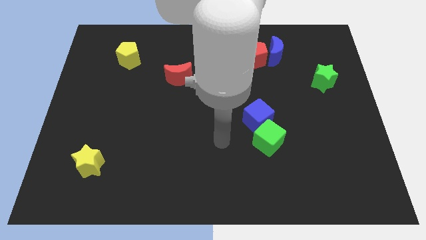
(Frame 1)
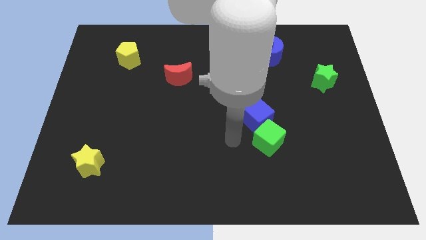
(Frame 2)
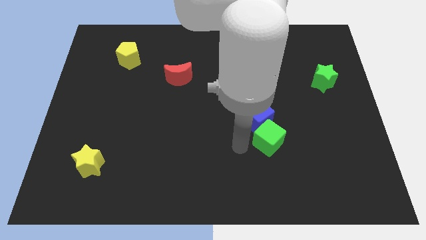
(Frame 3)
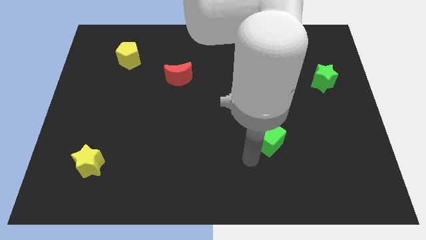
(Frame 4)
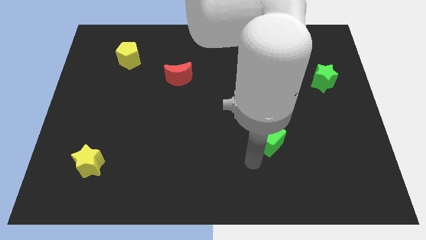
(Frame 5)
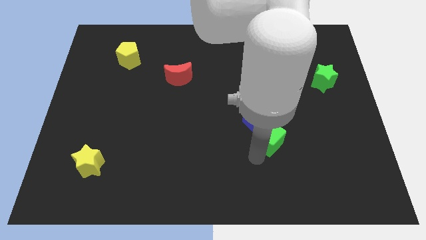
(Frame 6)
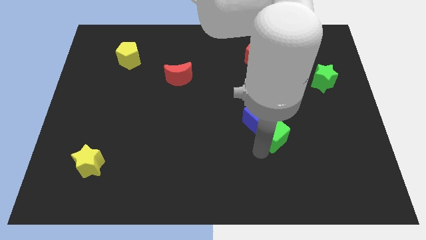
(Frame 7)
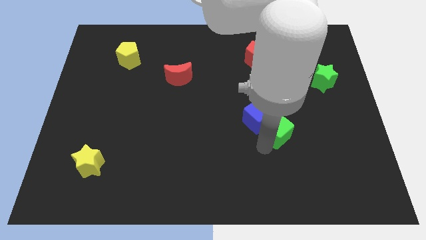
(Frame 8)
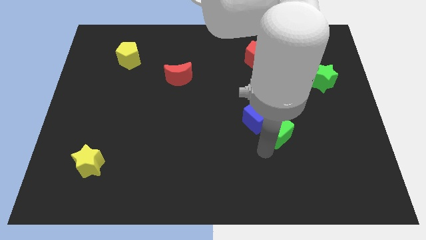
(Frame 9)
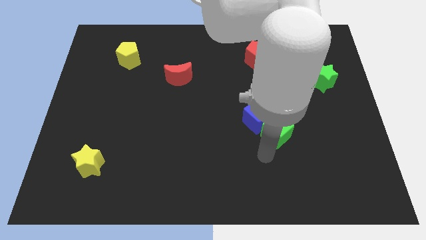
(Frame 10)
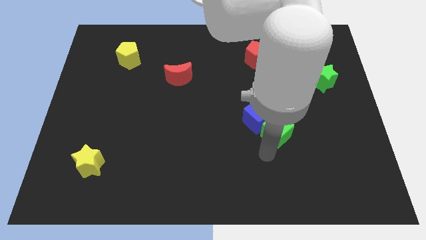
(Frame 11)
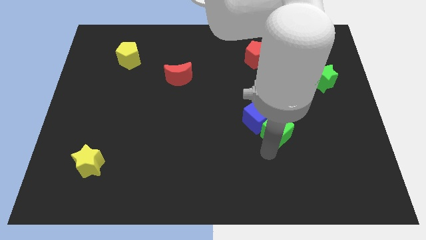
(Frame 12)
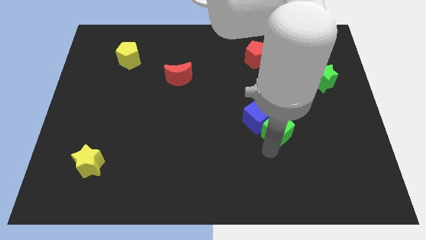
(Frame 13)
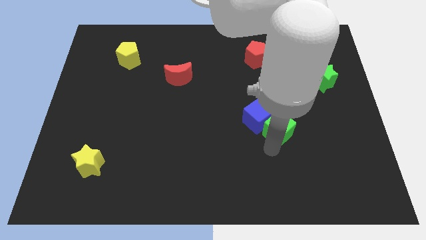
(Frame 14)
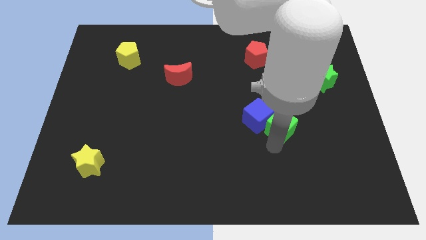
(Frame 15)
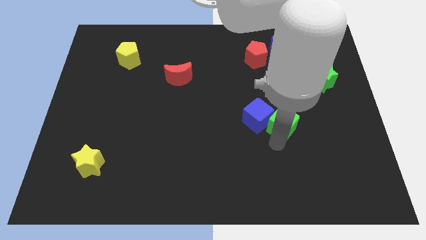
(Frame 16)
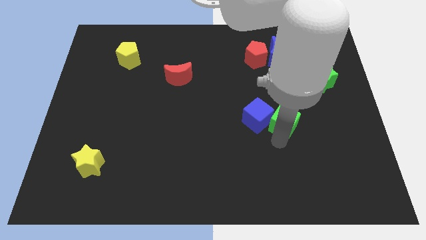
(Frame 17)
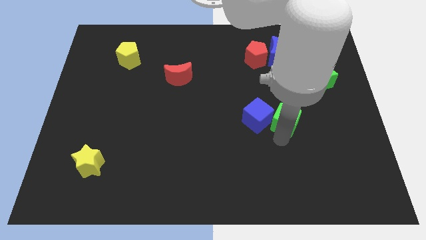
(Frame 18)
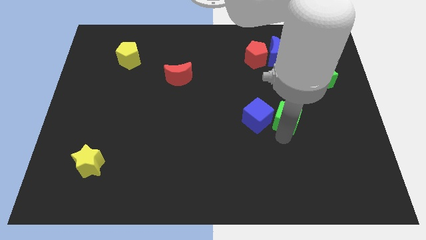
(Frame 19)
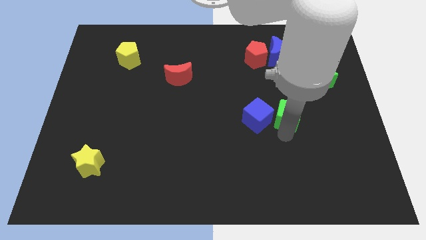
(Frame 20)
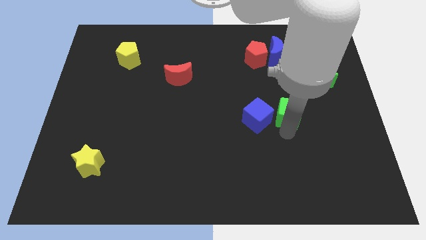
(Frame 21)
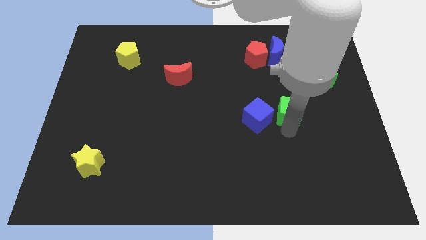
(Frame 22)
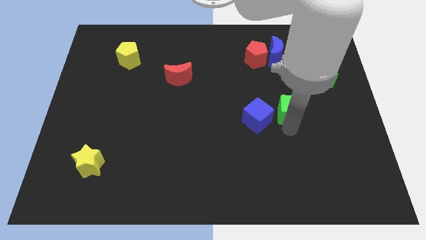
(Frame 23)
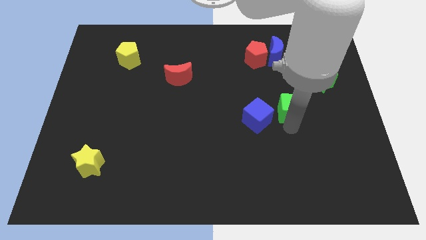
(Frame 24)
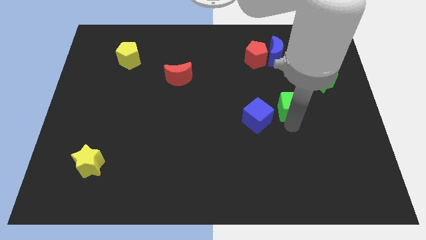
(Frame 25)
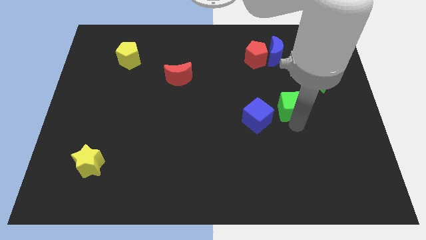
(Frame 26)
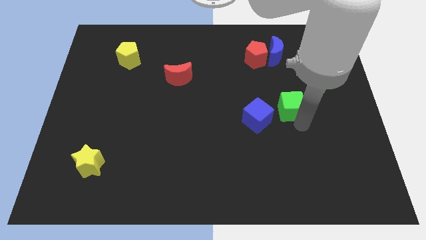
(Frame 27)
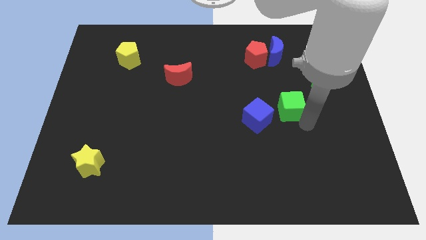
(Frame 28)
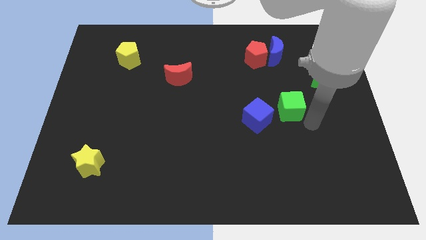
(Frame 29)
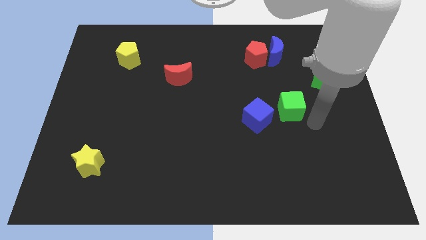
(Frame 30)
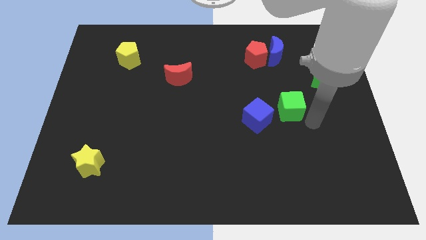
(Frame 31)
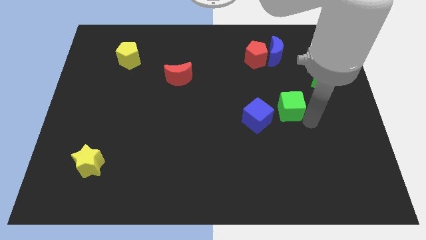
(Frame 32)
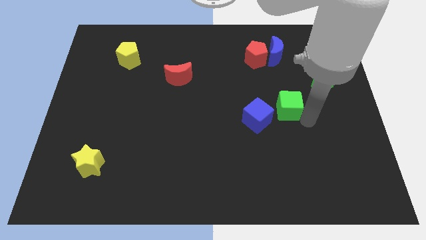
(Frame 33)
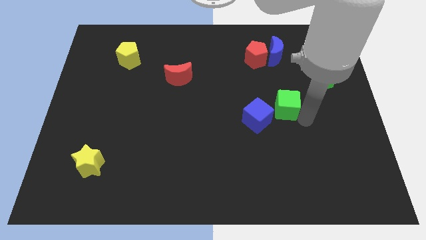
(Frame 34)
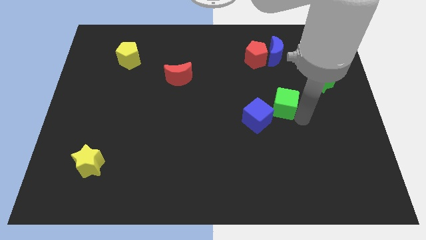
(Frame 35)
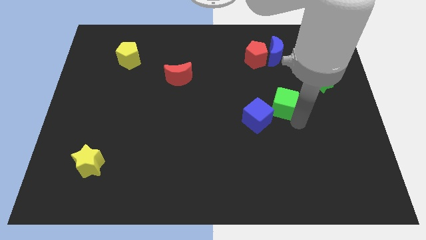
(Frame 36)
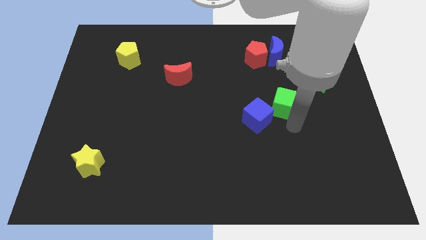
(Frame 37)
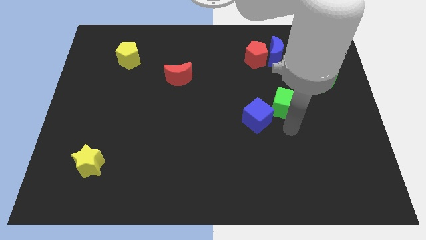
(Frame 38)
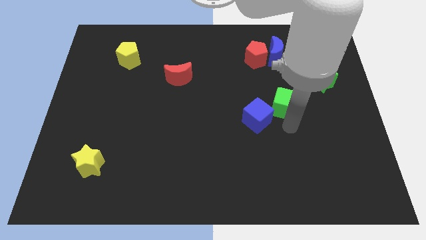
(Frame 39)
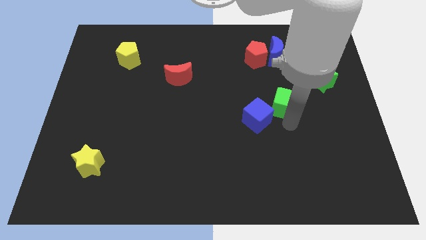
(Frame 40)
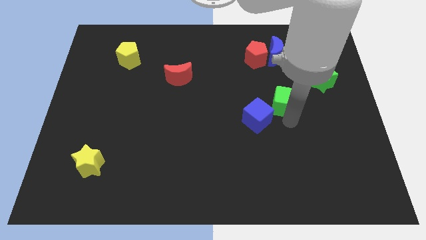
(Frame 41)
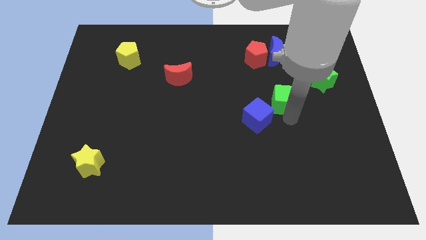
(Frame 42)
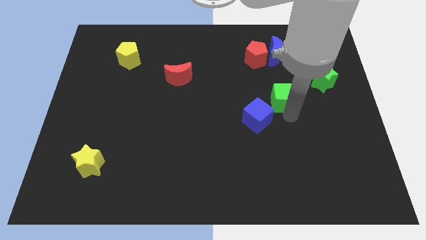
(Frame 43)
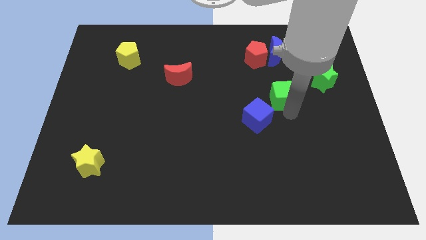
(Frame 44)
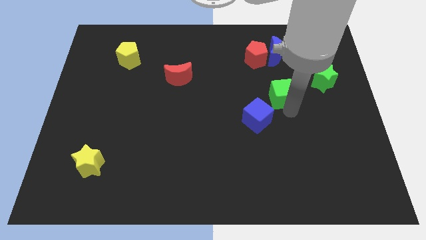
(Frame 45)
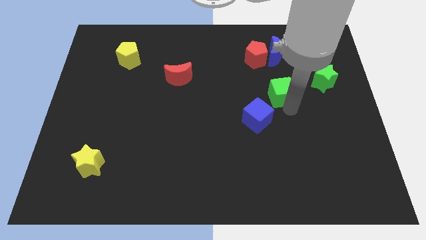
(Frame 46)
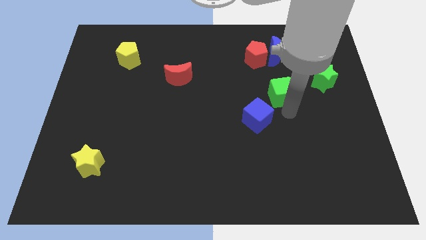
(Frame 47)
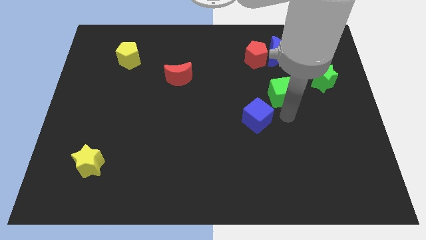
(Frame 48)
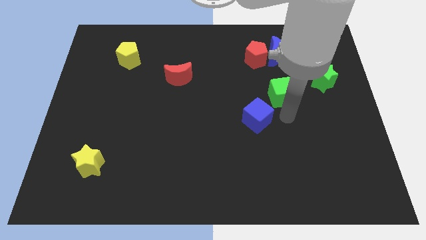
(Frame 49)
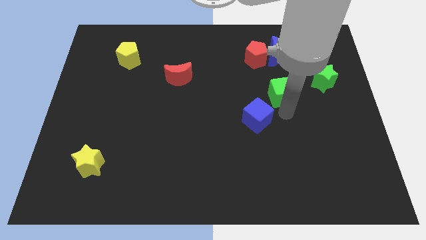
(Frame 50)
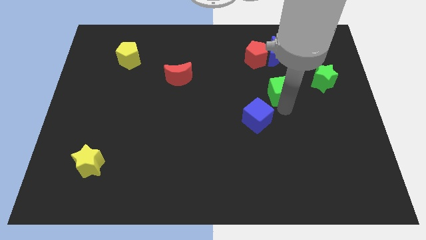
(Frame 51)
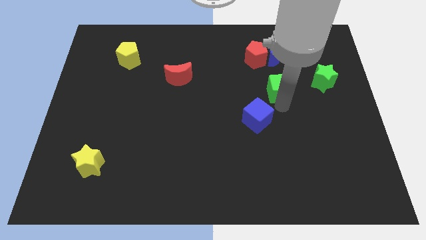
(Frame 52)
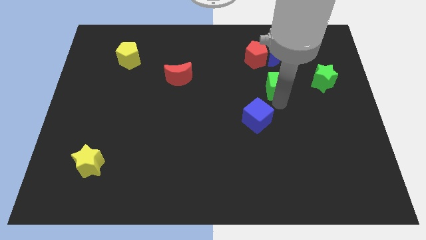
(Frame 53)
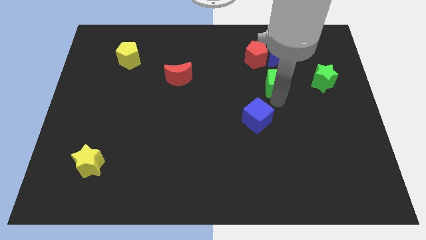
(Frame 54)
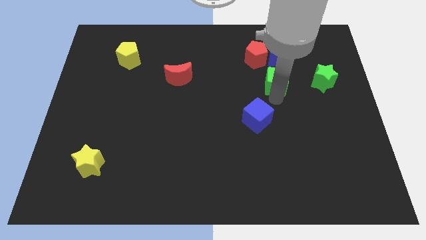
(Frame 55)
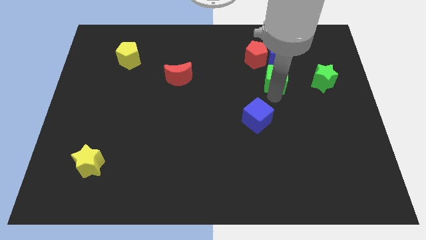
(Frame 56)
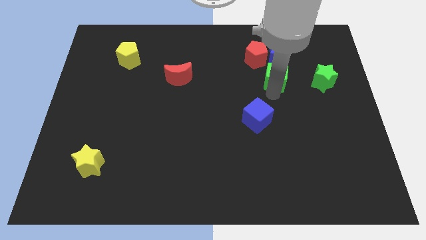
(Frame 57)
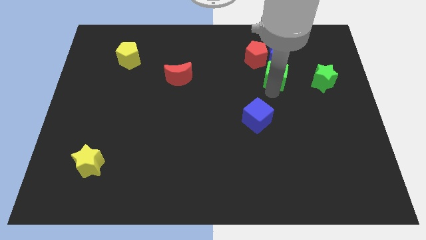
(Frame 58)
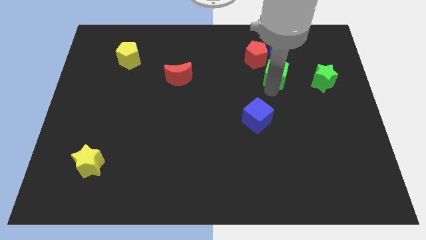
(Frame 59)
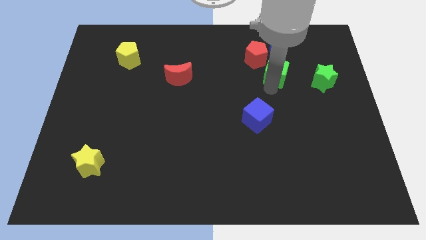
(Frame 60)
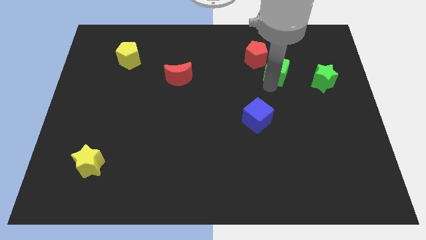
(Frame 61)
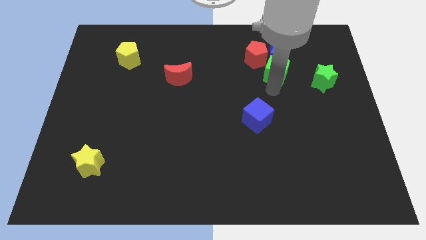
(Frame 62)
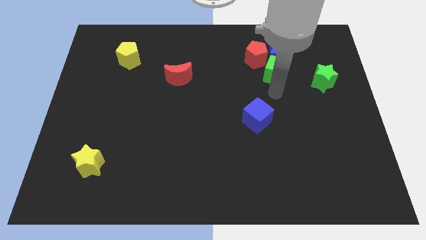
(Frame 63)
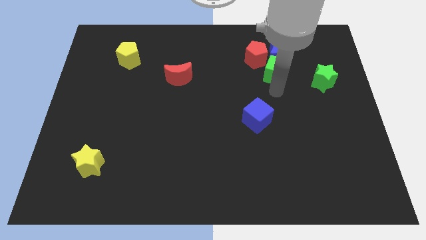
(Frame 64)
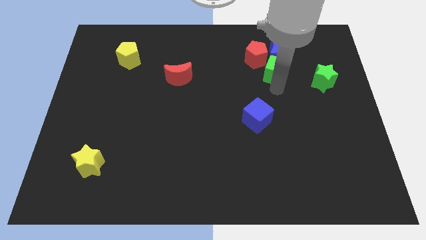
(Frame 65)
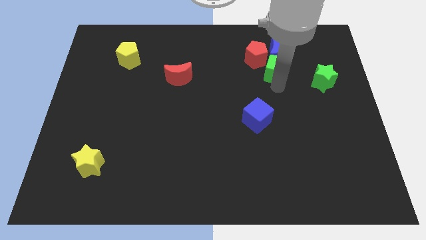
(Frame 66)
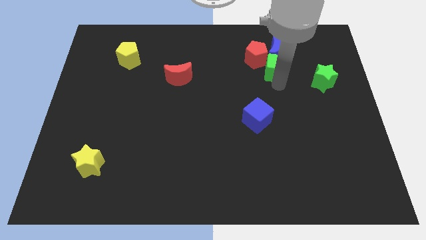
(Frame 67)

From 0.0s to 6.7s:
move the green cube next to the blue moon
